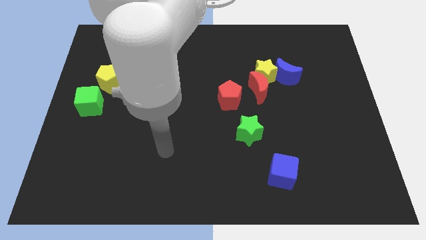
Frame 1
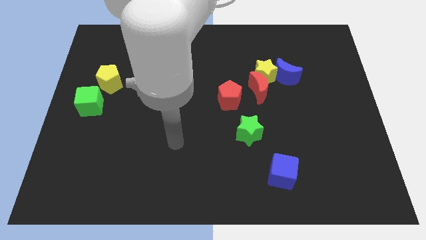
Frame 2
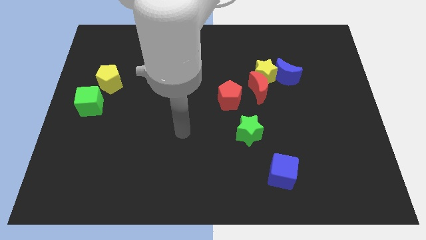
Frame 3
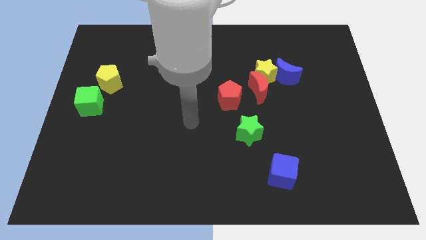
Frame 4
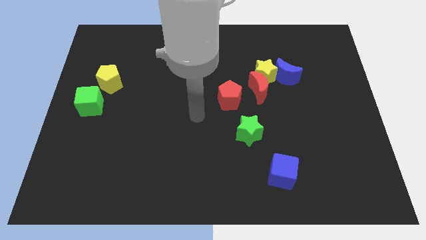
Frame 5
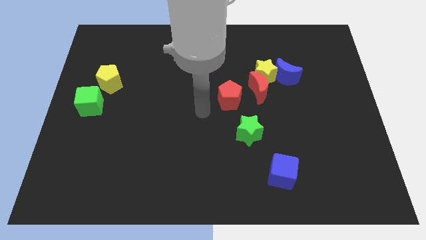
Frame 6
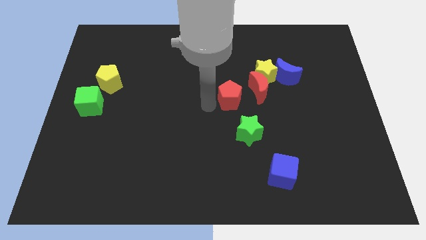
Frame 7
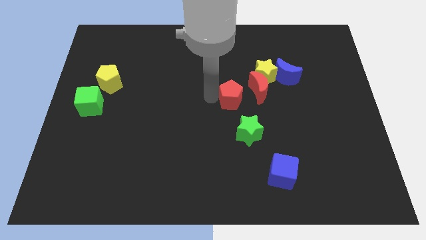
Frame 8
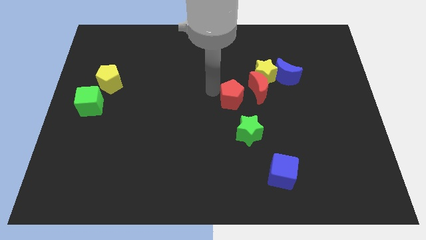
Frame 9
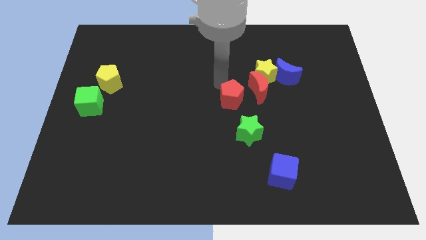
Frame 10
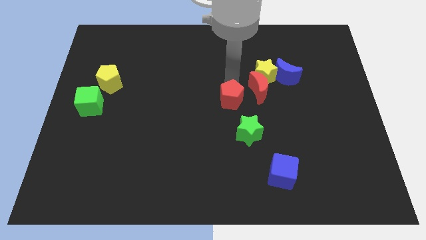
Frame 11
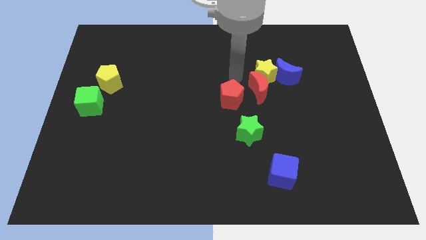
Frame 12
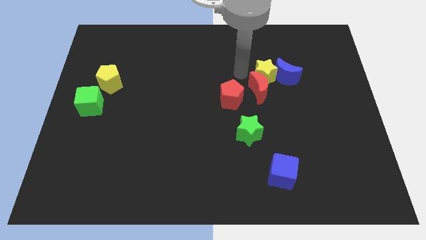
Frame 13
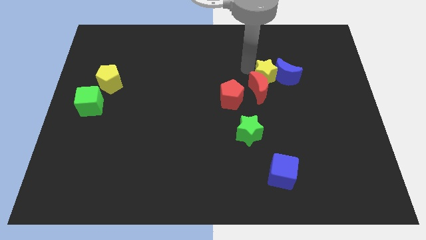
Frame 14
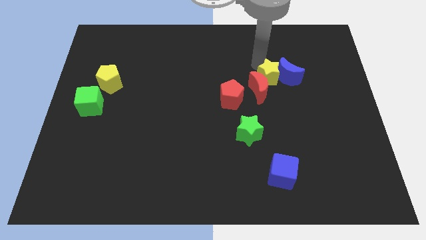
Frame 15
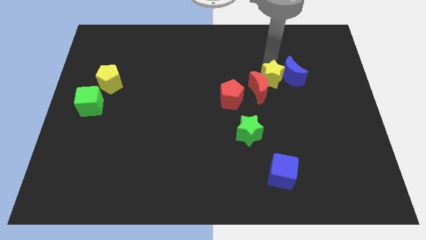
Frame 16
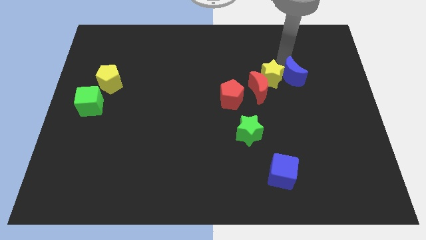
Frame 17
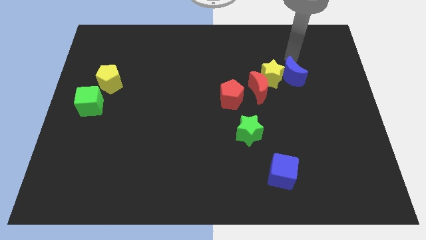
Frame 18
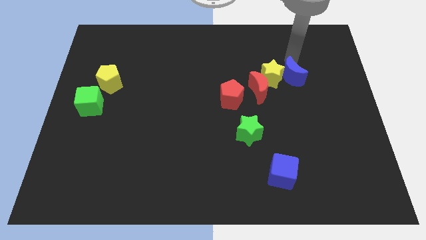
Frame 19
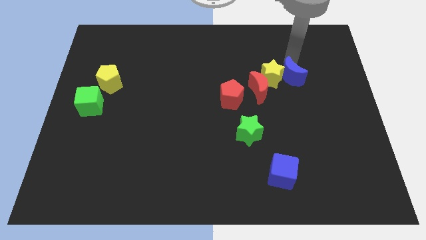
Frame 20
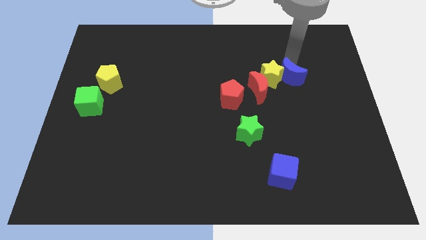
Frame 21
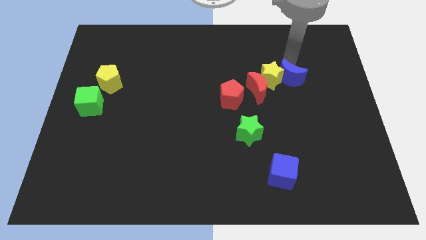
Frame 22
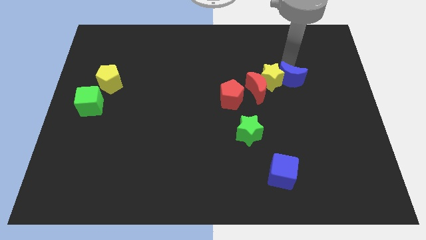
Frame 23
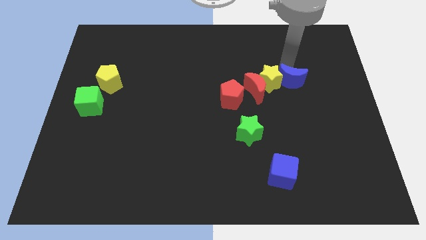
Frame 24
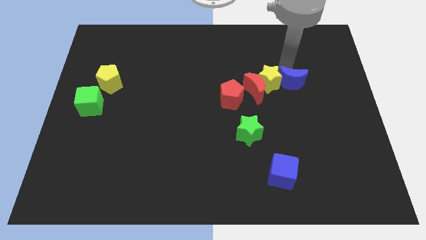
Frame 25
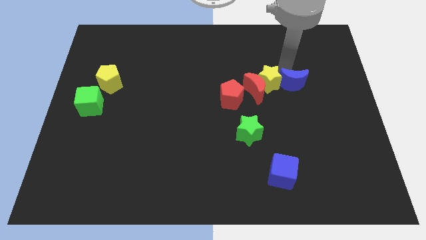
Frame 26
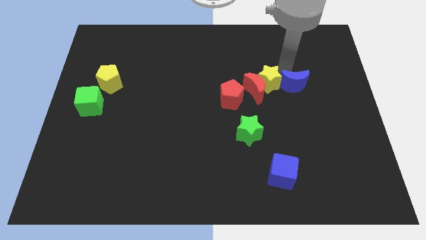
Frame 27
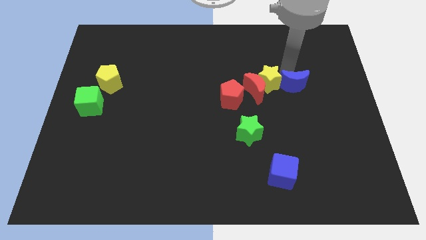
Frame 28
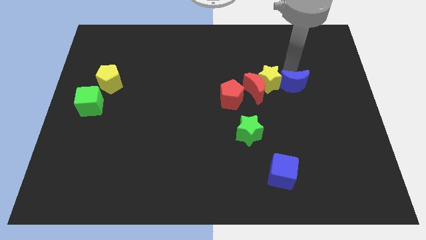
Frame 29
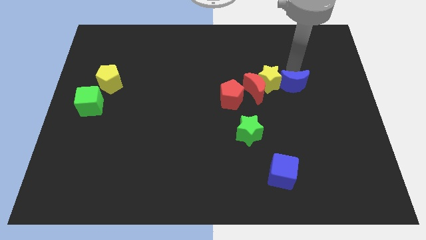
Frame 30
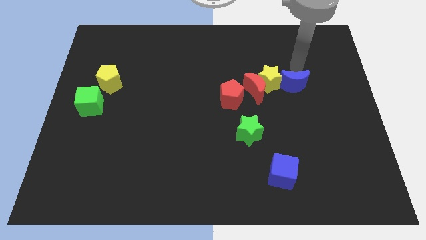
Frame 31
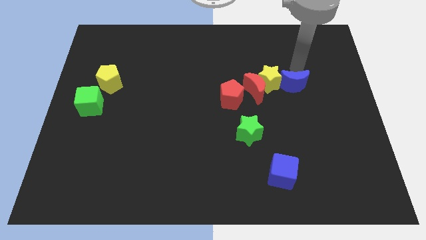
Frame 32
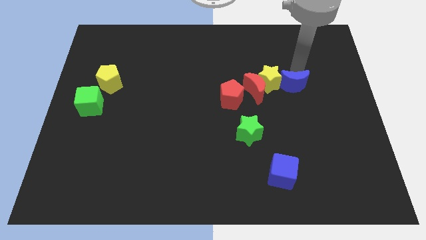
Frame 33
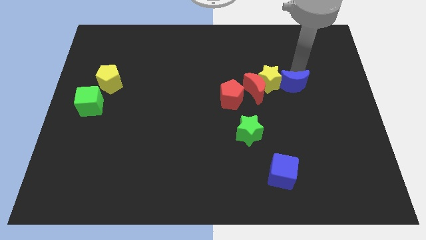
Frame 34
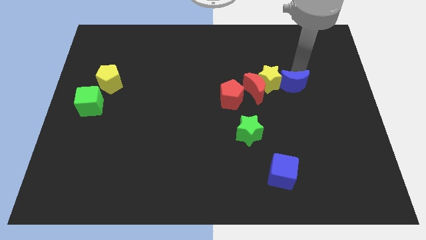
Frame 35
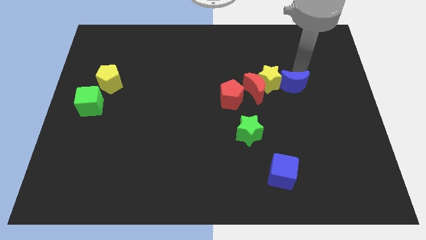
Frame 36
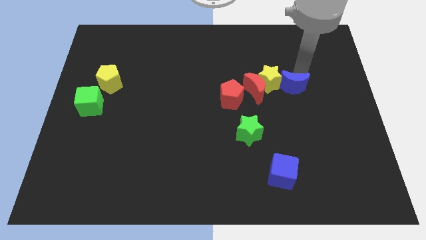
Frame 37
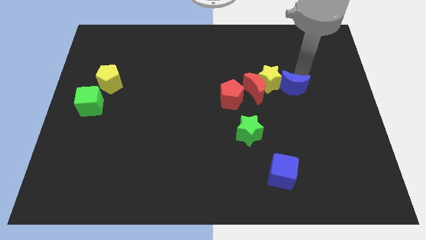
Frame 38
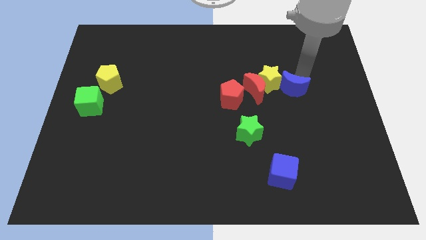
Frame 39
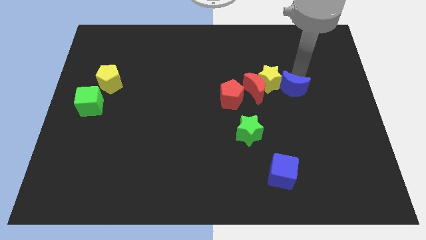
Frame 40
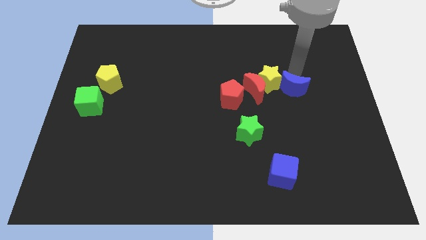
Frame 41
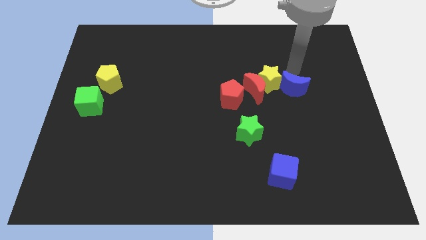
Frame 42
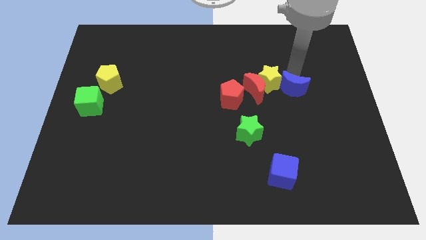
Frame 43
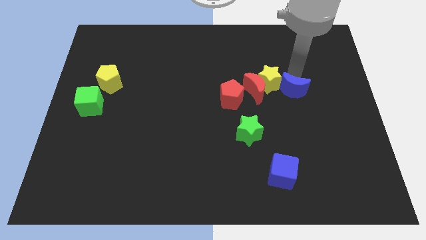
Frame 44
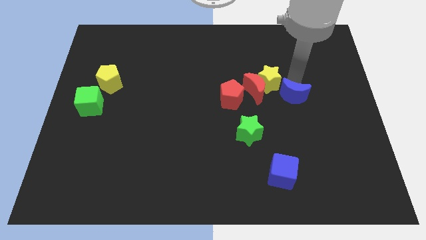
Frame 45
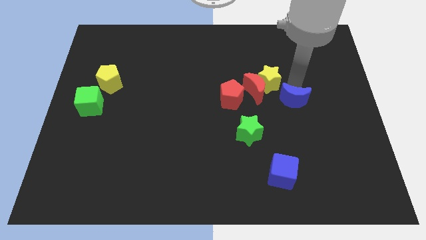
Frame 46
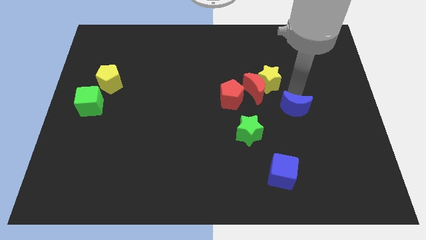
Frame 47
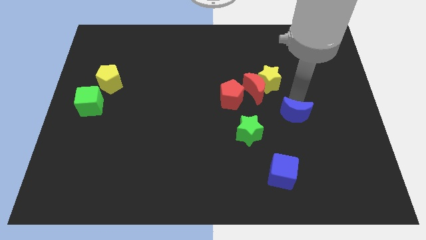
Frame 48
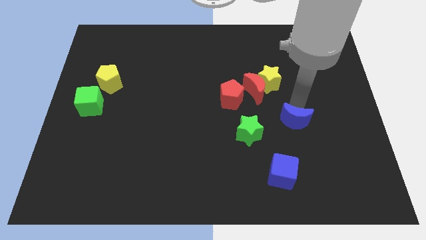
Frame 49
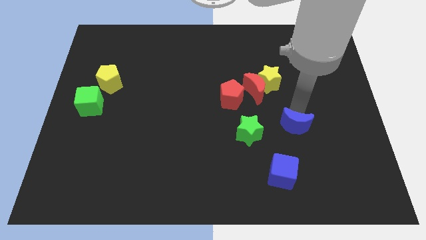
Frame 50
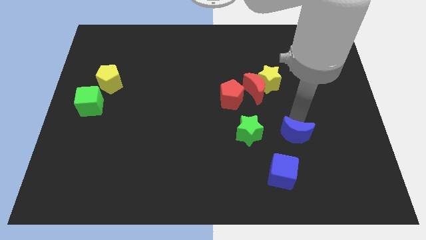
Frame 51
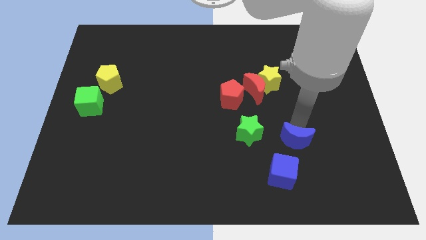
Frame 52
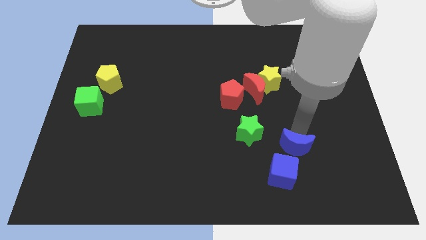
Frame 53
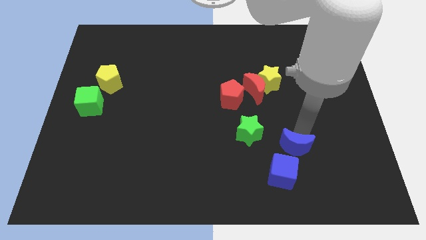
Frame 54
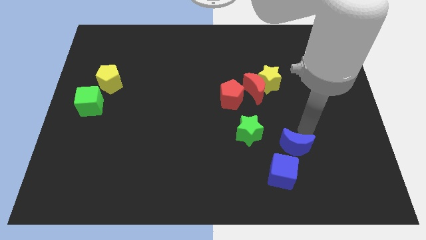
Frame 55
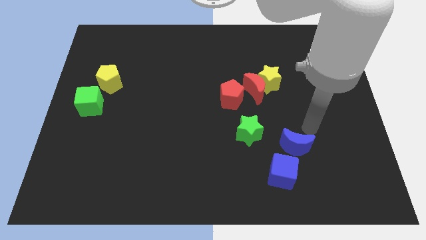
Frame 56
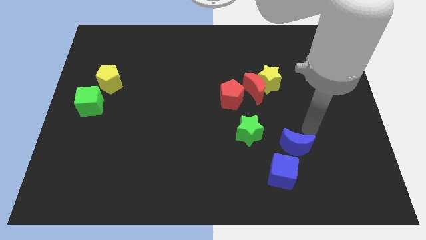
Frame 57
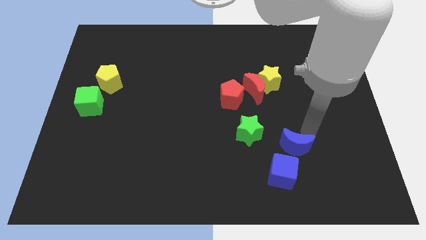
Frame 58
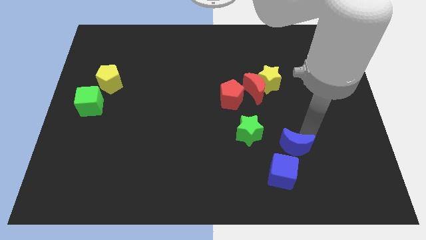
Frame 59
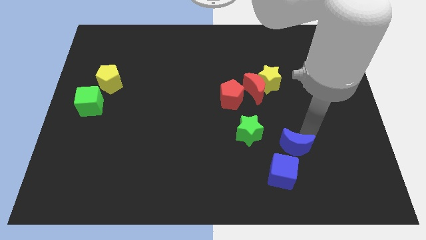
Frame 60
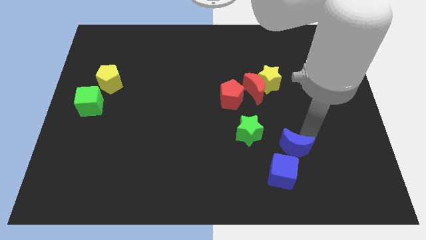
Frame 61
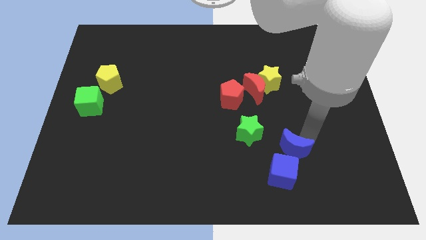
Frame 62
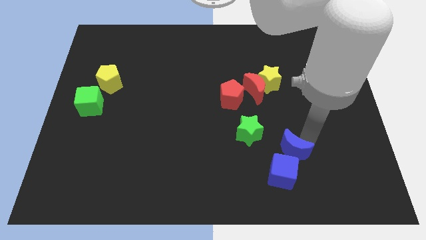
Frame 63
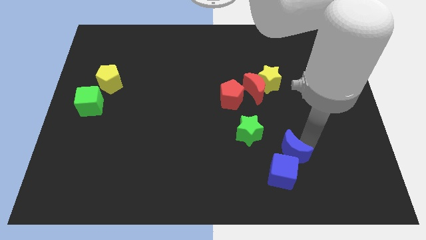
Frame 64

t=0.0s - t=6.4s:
put the blue moon to the blue cube

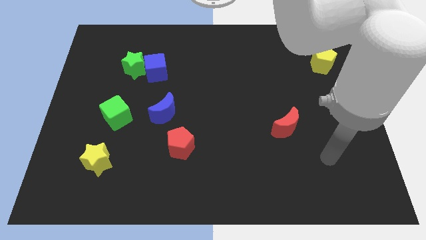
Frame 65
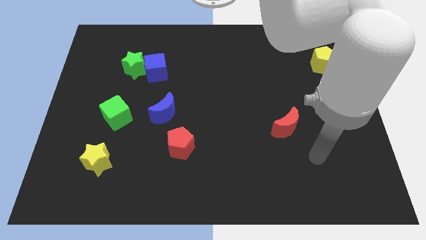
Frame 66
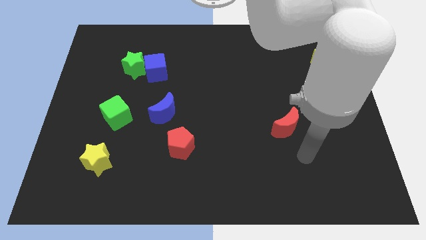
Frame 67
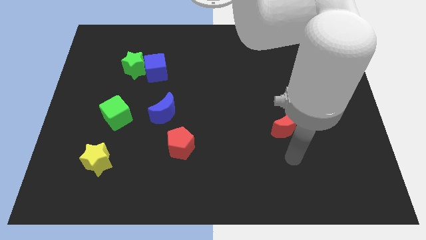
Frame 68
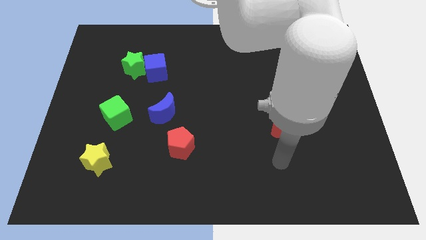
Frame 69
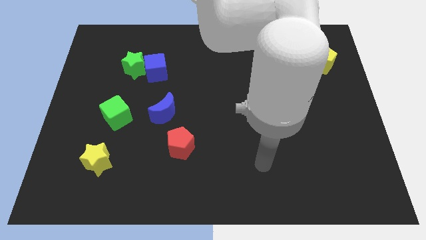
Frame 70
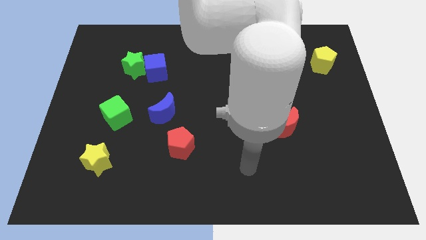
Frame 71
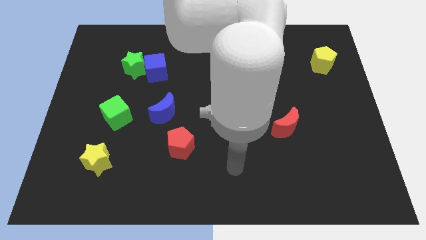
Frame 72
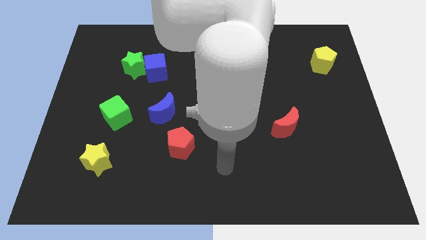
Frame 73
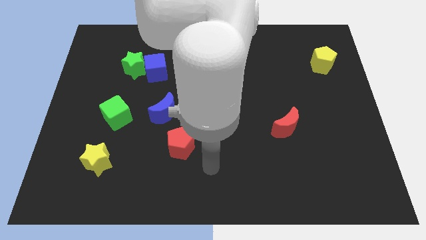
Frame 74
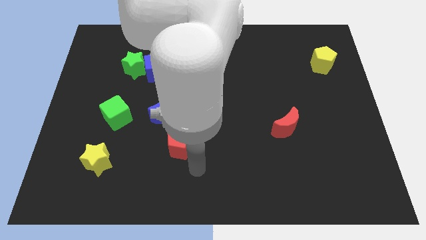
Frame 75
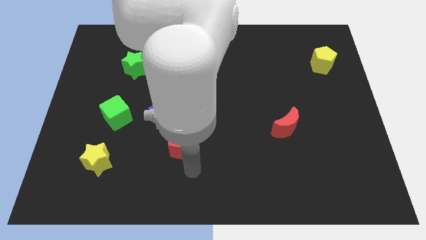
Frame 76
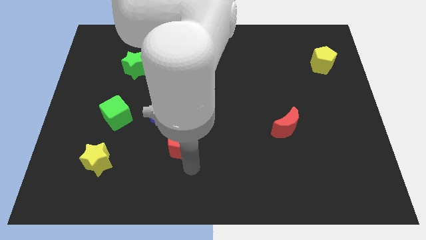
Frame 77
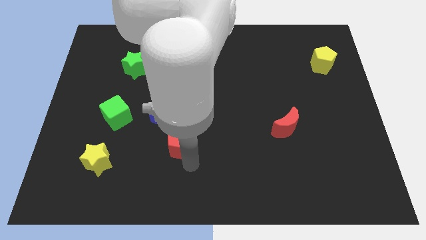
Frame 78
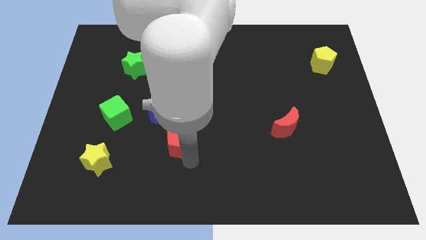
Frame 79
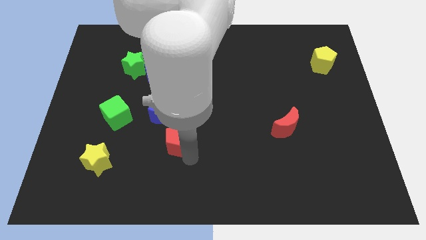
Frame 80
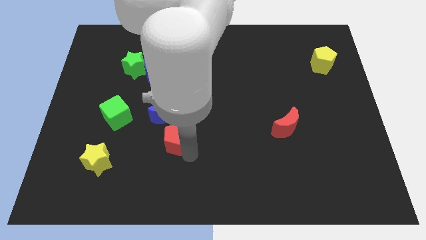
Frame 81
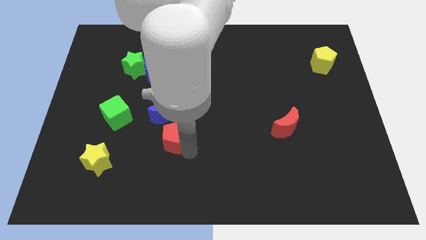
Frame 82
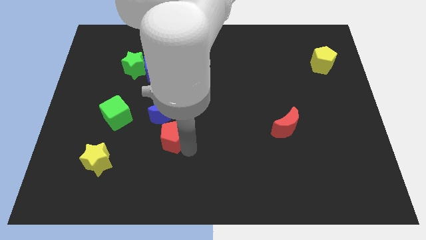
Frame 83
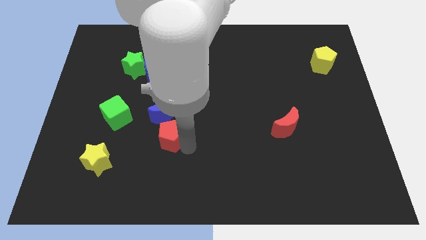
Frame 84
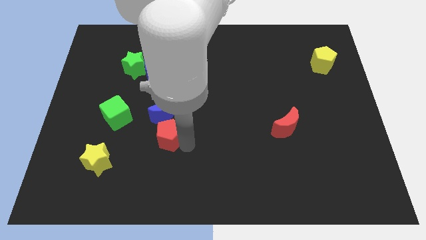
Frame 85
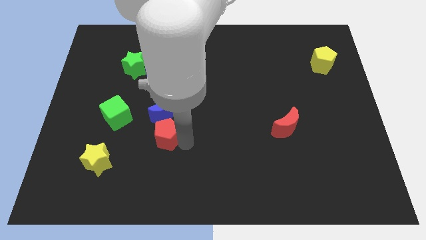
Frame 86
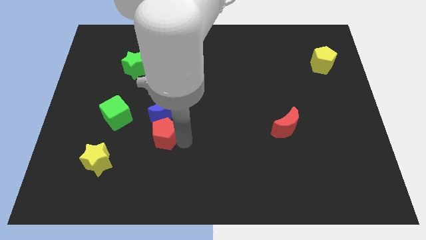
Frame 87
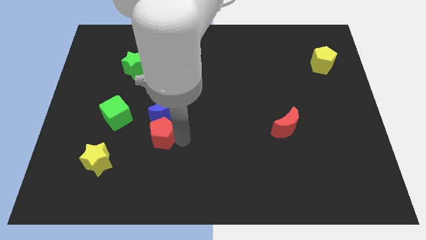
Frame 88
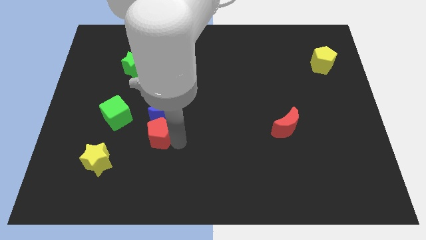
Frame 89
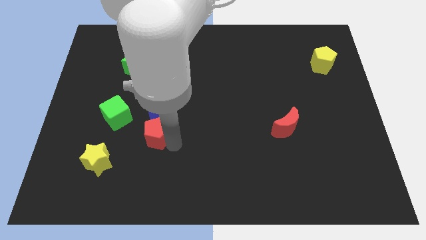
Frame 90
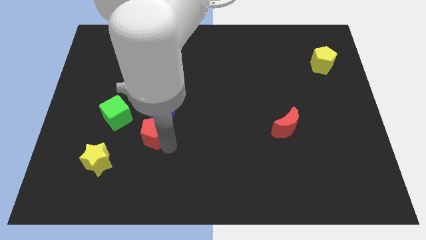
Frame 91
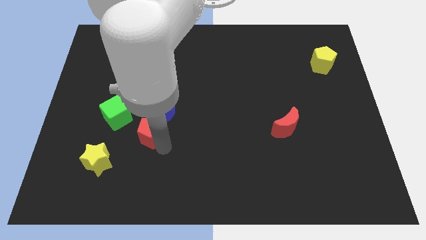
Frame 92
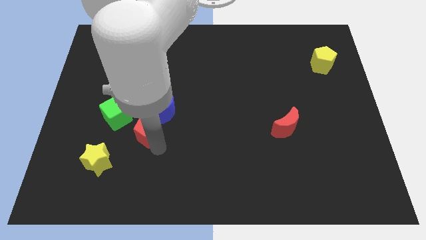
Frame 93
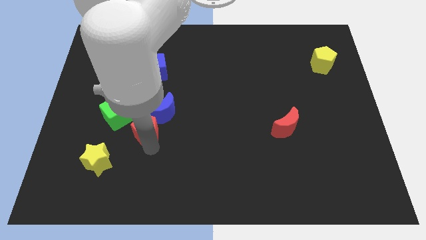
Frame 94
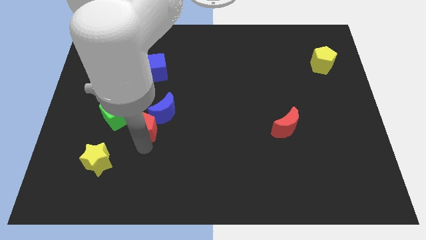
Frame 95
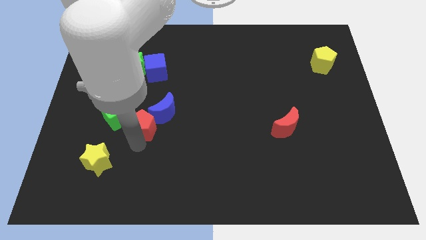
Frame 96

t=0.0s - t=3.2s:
push the red pentagon next to the blue moon
